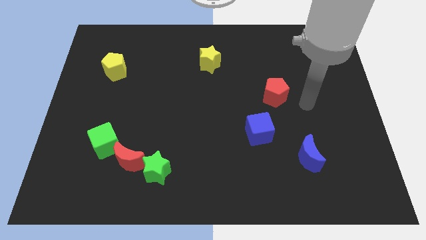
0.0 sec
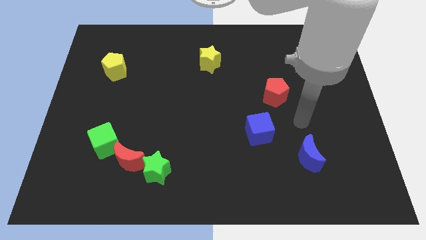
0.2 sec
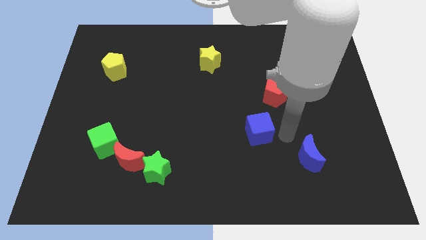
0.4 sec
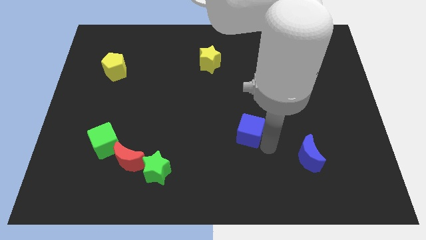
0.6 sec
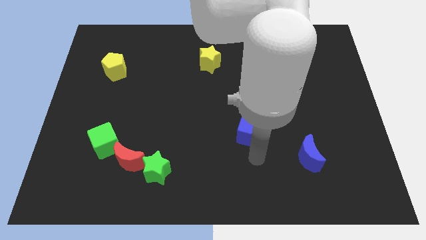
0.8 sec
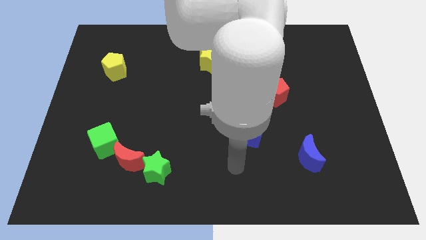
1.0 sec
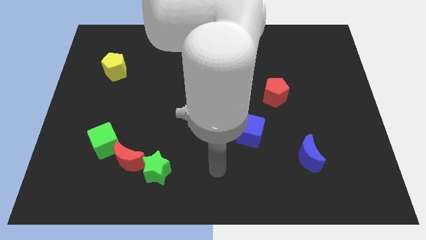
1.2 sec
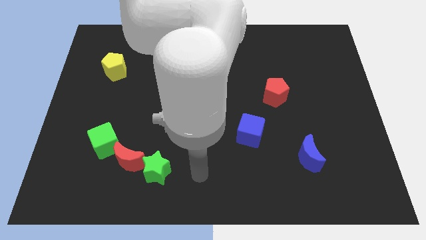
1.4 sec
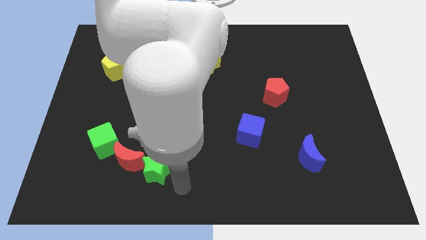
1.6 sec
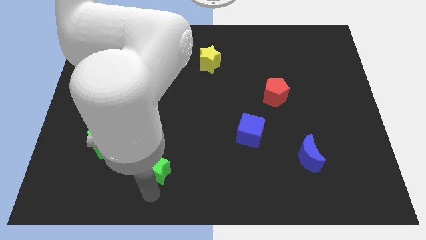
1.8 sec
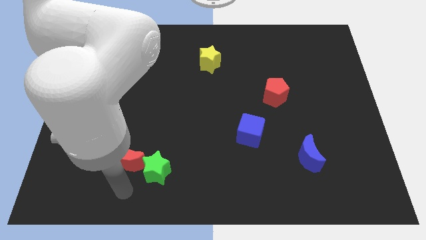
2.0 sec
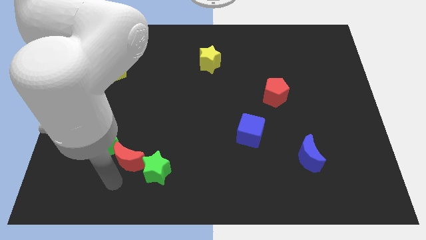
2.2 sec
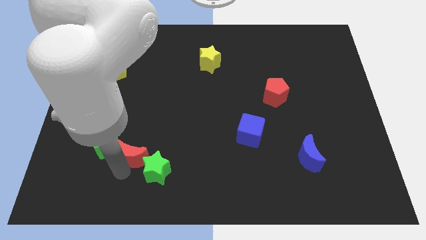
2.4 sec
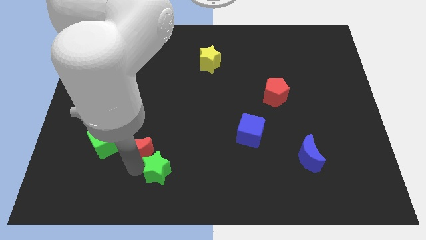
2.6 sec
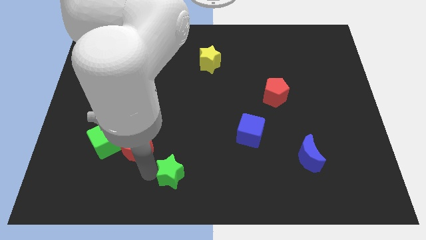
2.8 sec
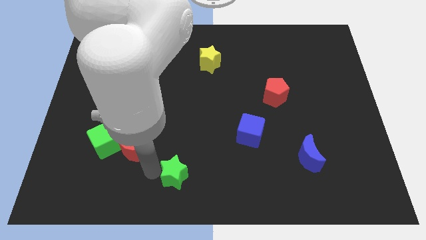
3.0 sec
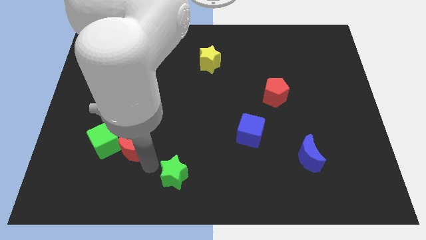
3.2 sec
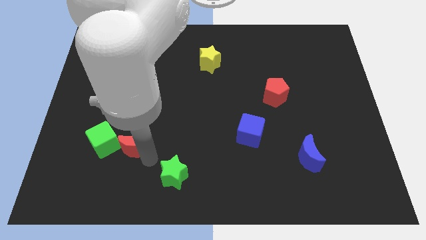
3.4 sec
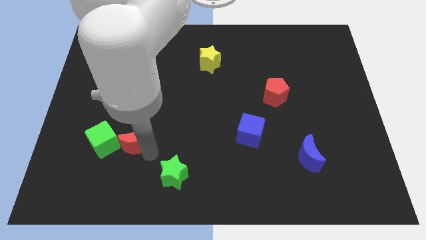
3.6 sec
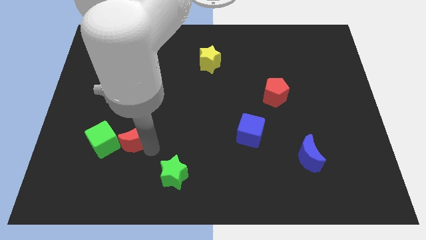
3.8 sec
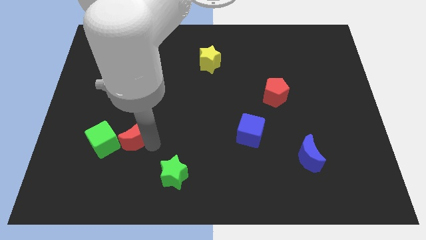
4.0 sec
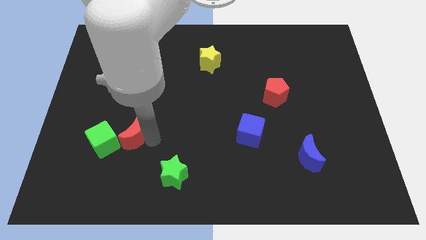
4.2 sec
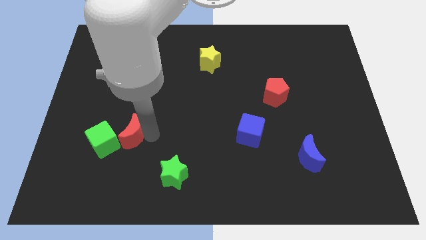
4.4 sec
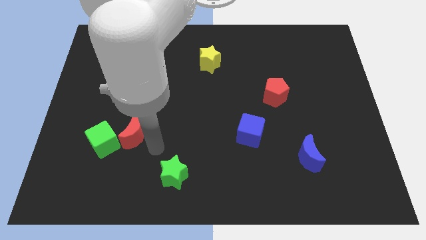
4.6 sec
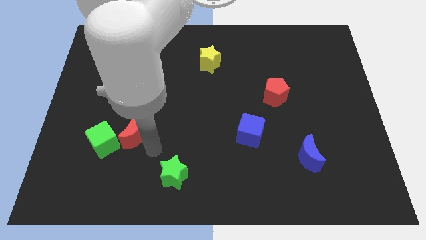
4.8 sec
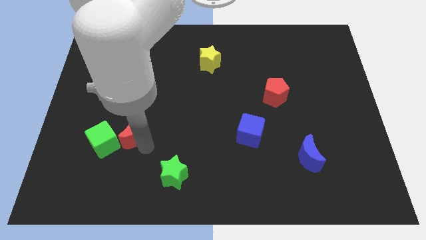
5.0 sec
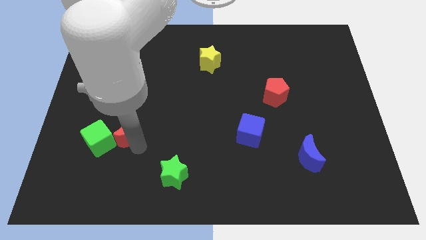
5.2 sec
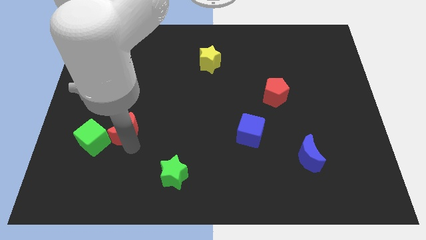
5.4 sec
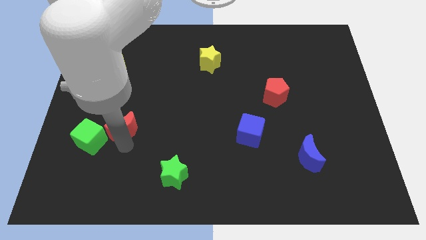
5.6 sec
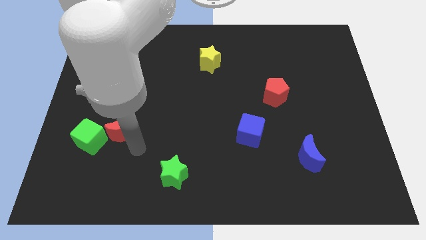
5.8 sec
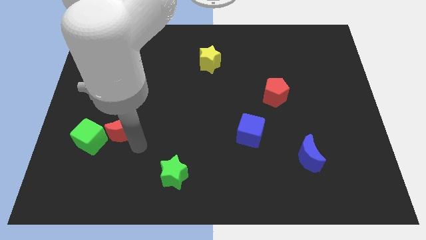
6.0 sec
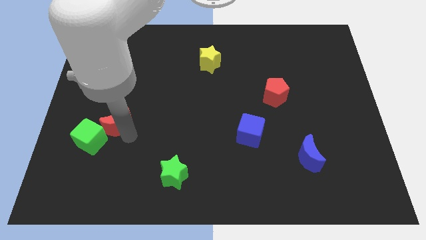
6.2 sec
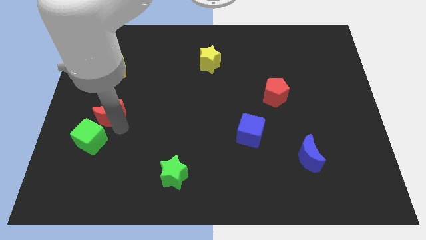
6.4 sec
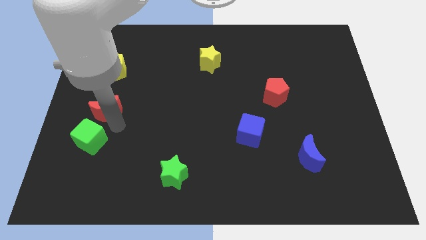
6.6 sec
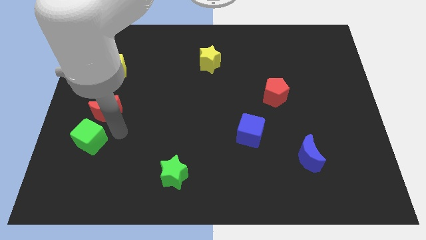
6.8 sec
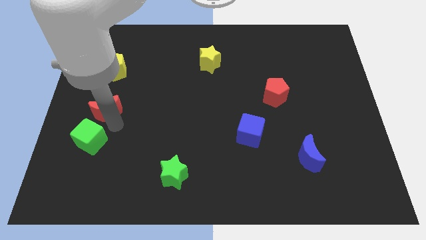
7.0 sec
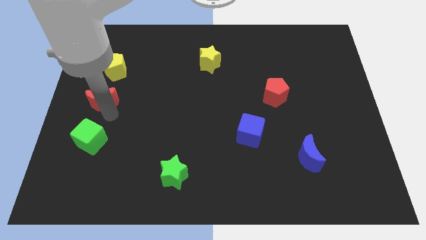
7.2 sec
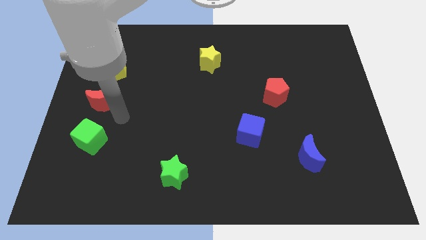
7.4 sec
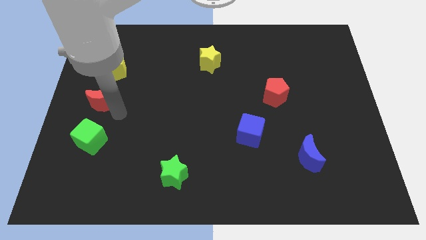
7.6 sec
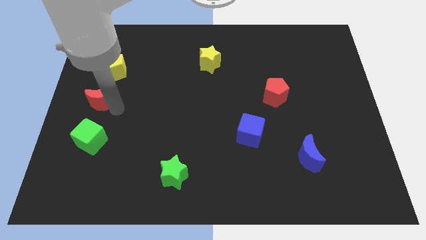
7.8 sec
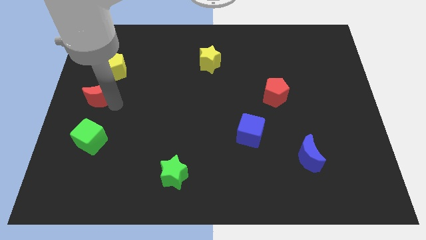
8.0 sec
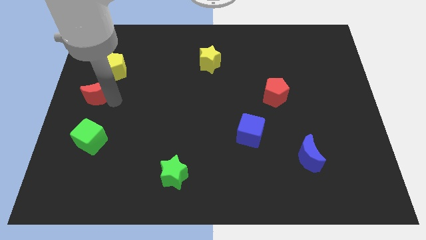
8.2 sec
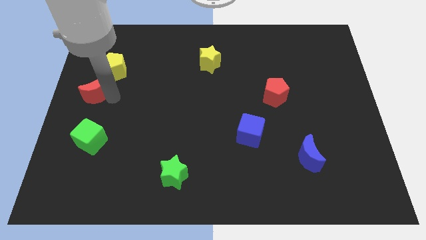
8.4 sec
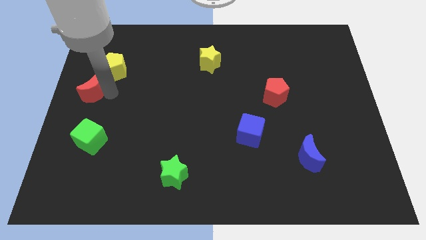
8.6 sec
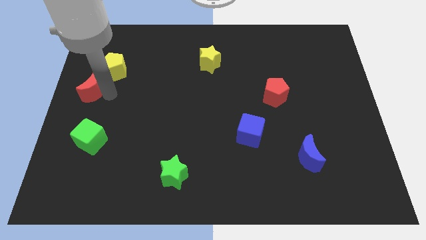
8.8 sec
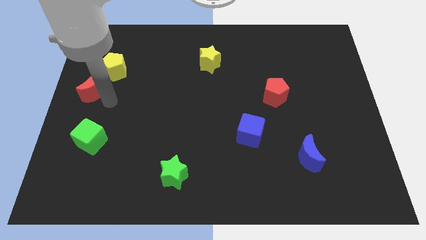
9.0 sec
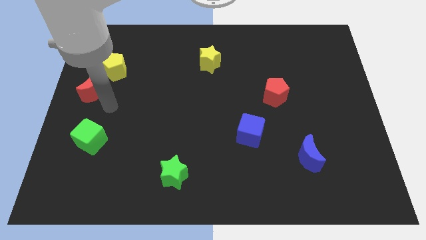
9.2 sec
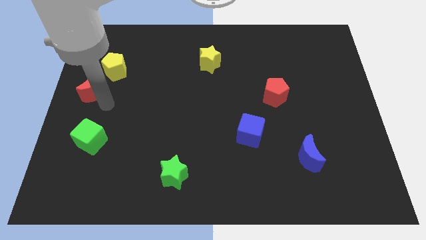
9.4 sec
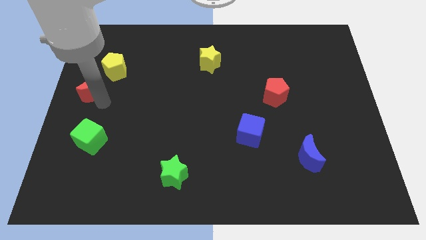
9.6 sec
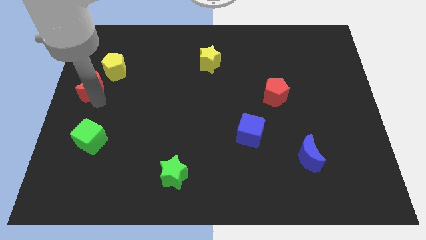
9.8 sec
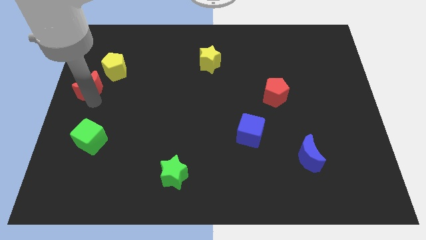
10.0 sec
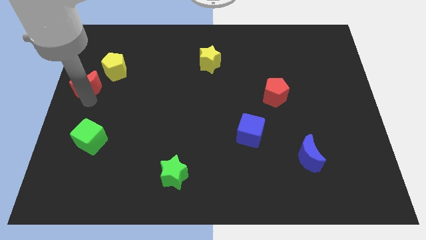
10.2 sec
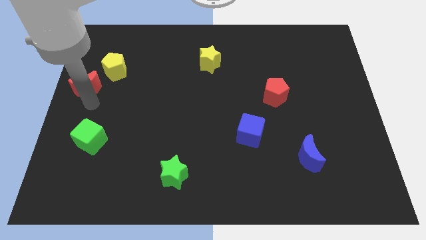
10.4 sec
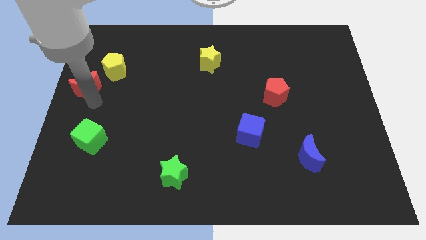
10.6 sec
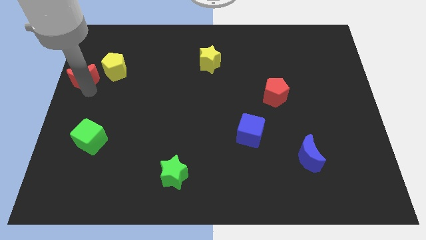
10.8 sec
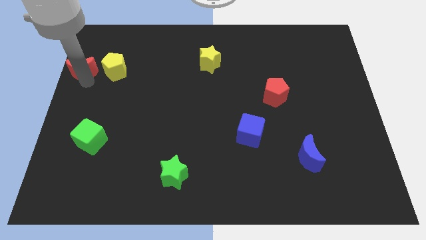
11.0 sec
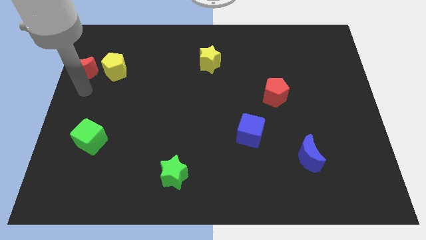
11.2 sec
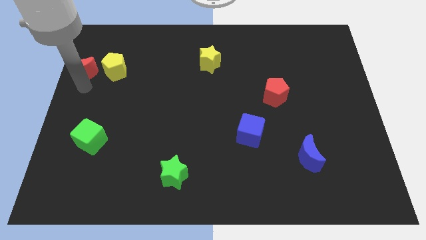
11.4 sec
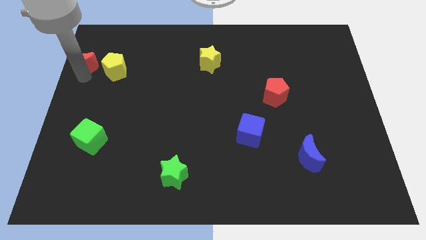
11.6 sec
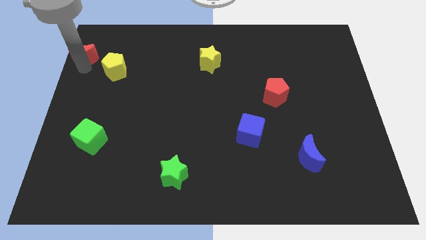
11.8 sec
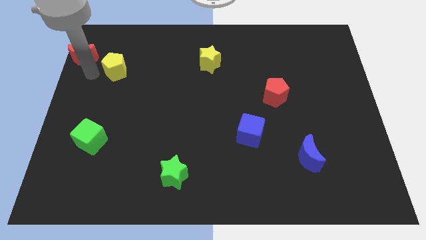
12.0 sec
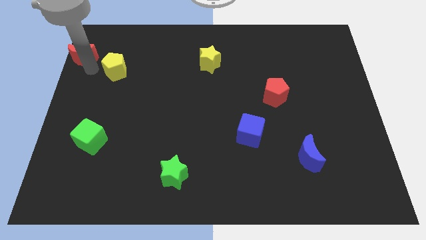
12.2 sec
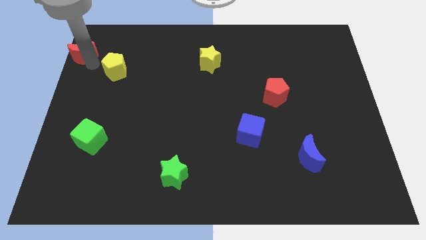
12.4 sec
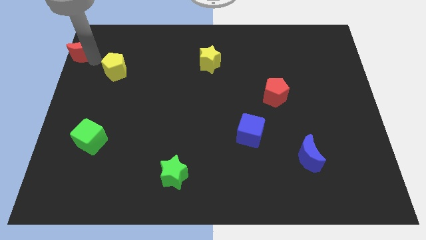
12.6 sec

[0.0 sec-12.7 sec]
push the red moon to the top left corner

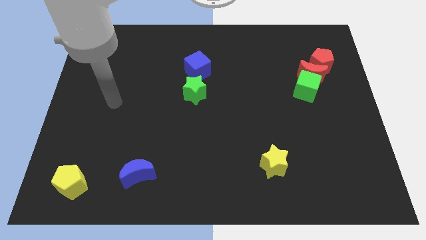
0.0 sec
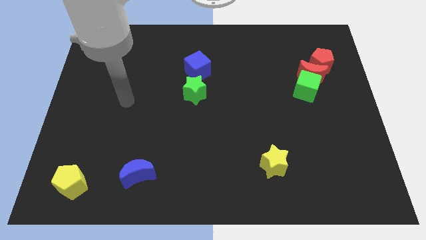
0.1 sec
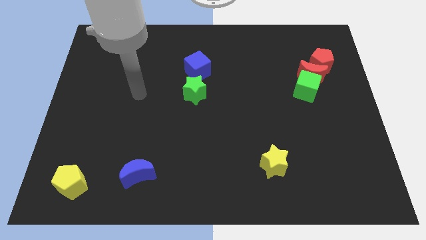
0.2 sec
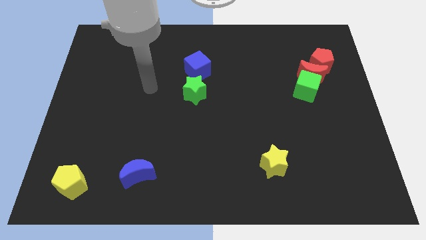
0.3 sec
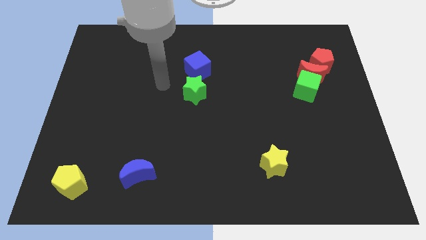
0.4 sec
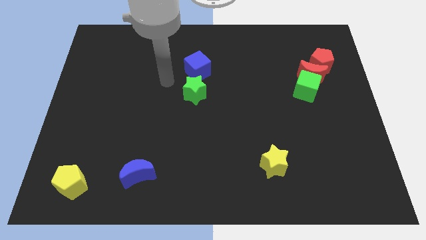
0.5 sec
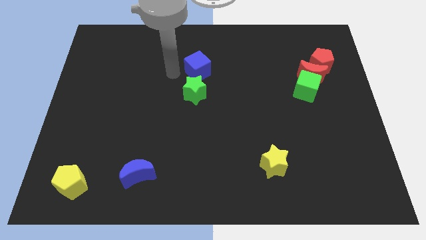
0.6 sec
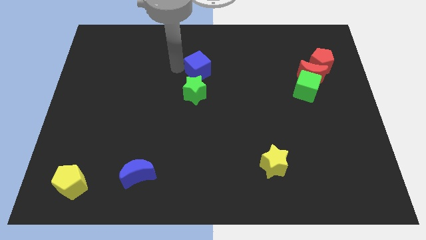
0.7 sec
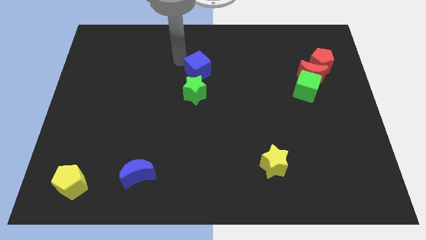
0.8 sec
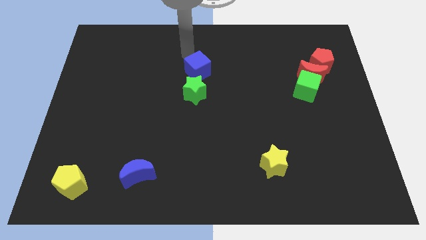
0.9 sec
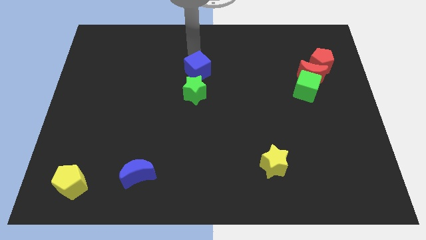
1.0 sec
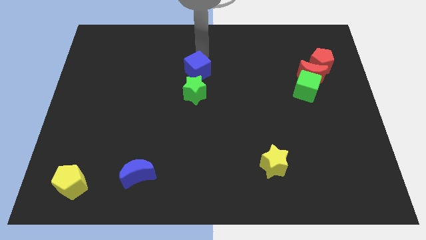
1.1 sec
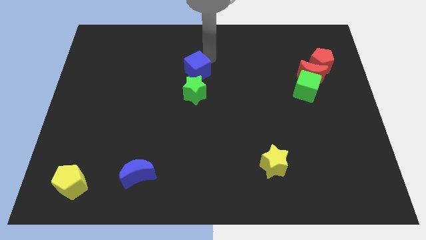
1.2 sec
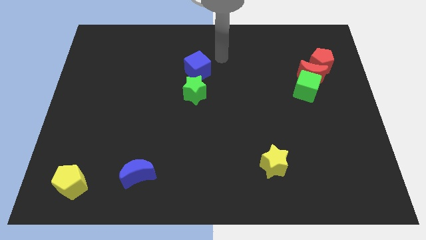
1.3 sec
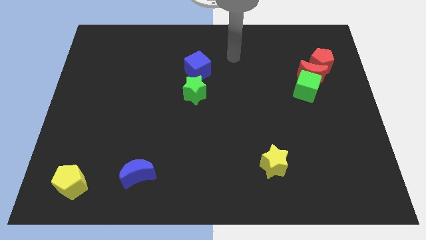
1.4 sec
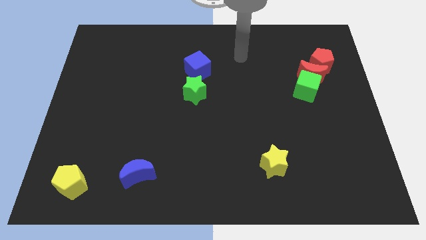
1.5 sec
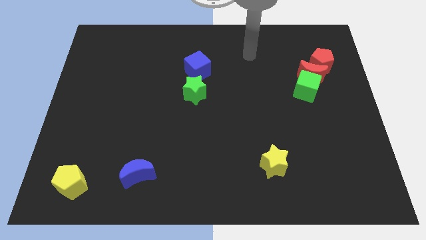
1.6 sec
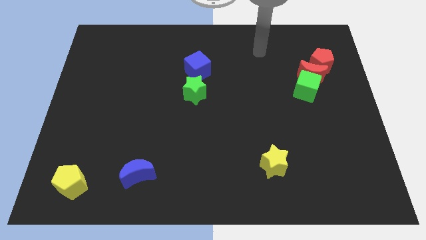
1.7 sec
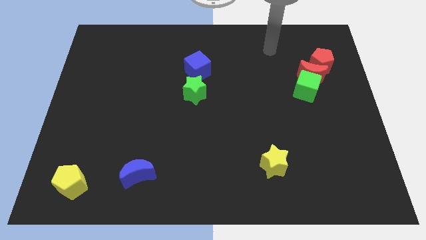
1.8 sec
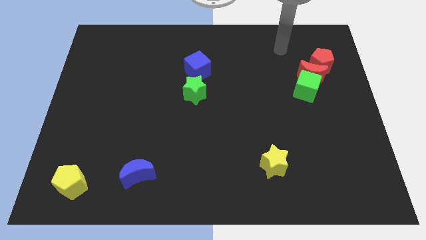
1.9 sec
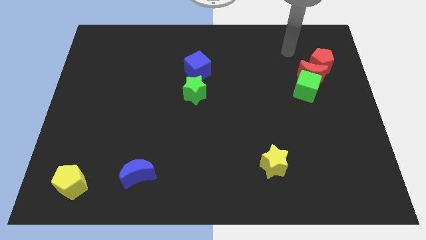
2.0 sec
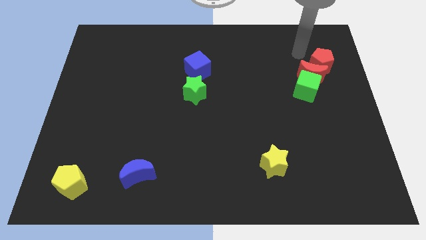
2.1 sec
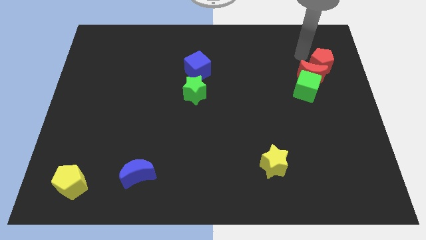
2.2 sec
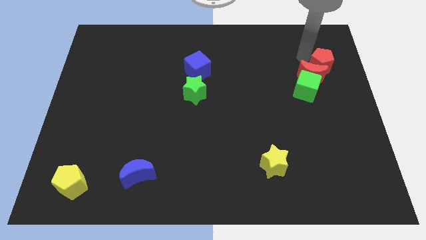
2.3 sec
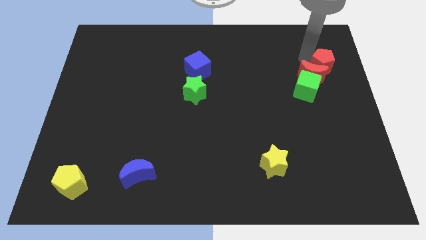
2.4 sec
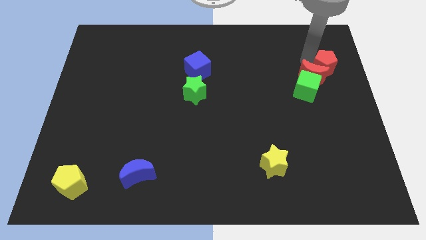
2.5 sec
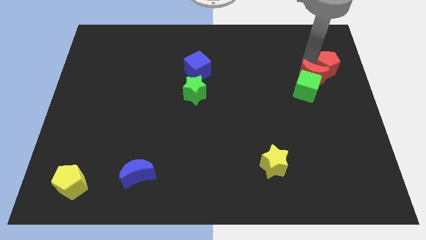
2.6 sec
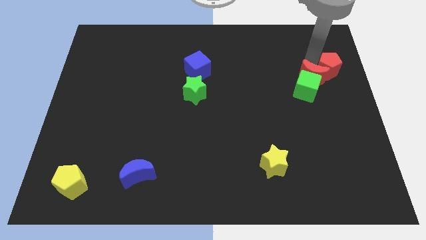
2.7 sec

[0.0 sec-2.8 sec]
push the red pentagon to the right side of the board
